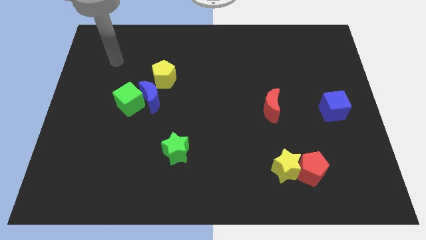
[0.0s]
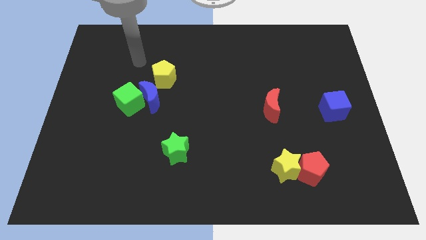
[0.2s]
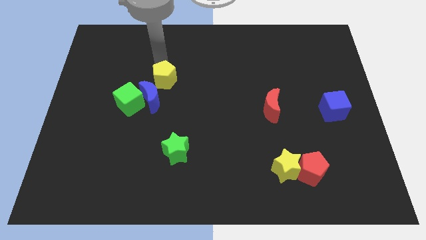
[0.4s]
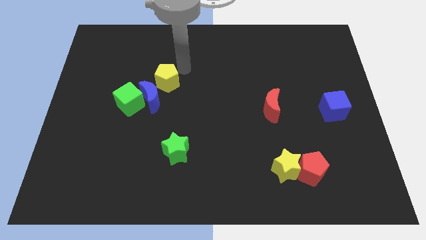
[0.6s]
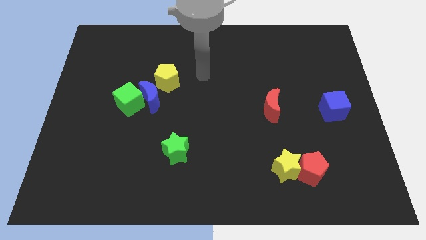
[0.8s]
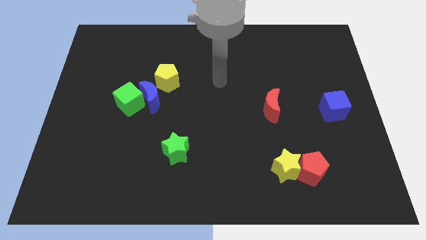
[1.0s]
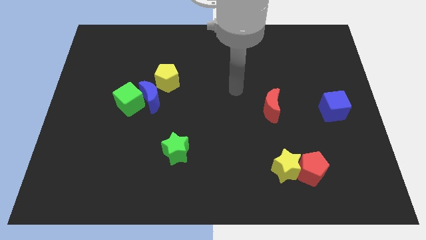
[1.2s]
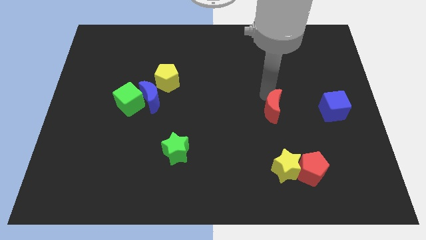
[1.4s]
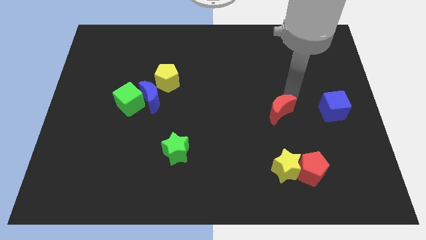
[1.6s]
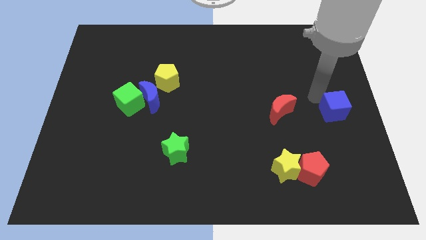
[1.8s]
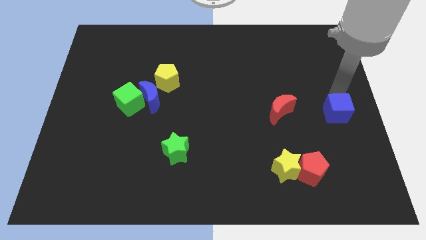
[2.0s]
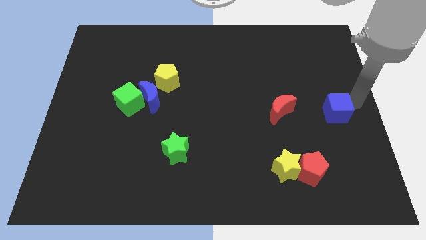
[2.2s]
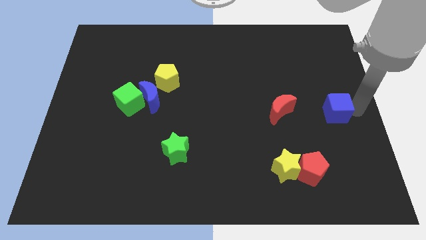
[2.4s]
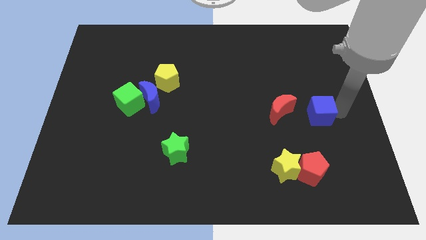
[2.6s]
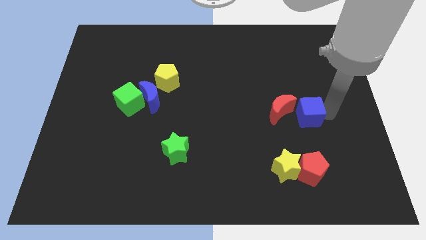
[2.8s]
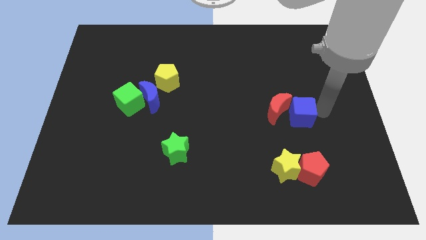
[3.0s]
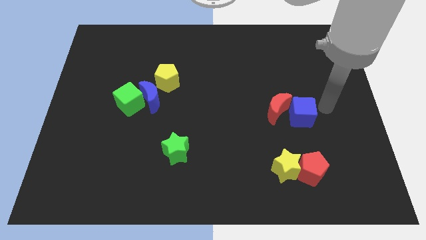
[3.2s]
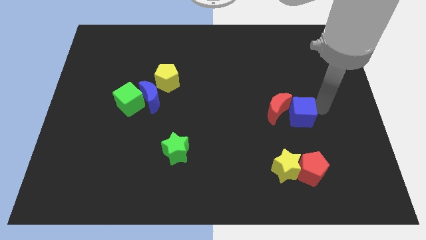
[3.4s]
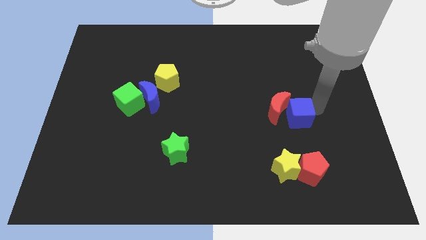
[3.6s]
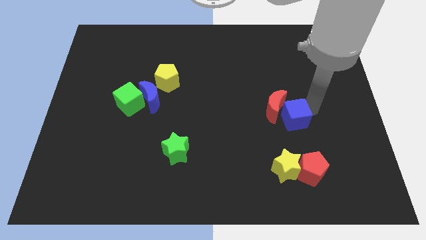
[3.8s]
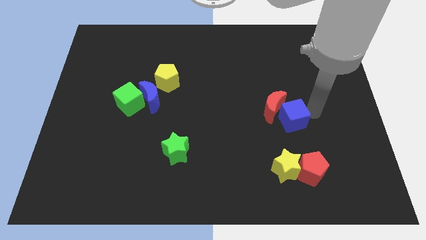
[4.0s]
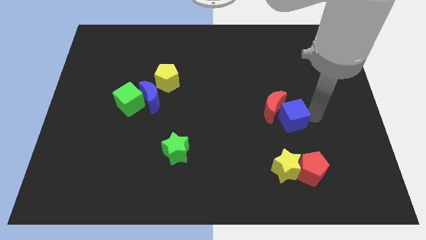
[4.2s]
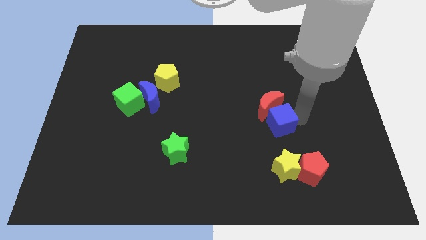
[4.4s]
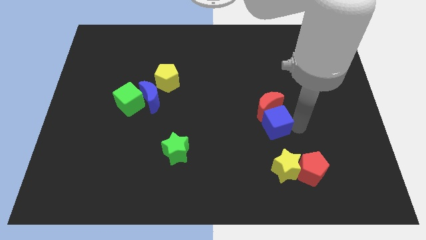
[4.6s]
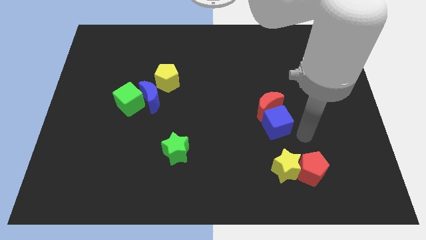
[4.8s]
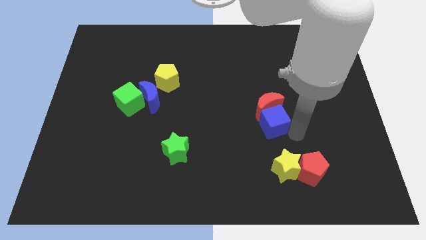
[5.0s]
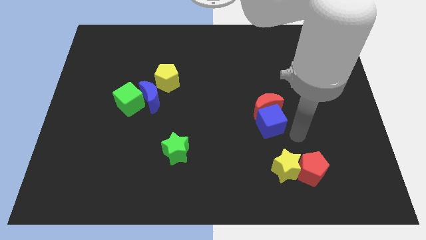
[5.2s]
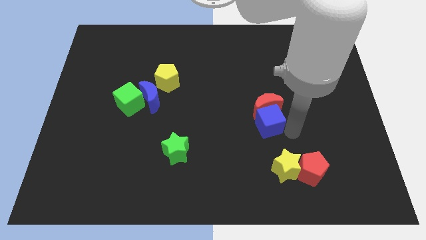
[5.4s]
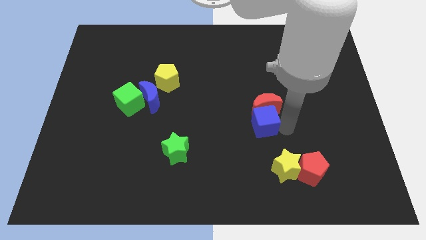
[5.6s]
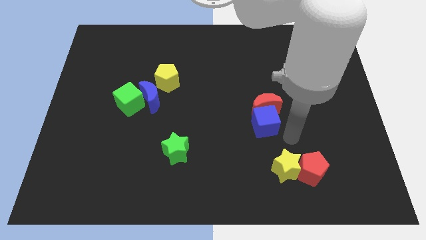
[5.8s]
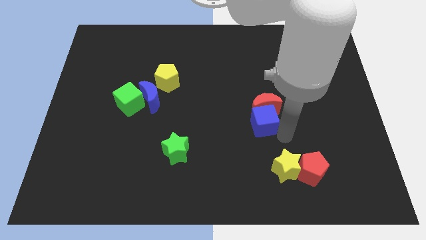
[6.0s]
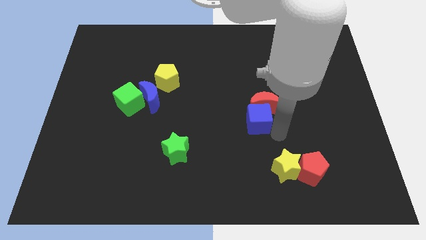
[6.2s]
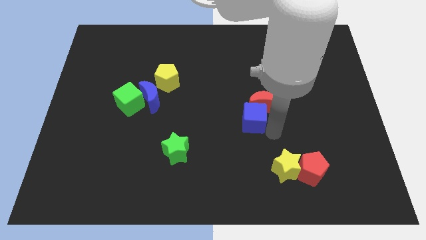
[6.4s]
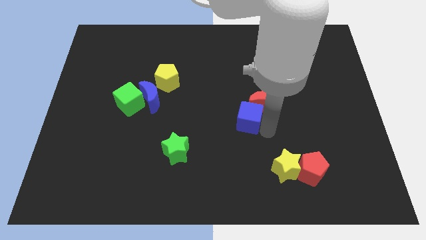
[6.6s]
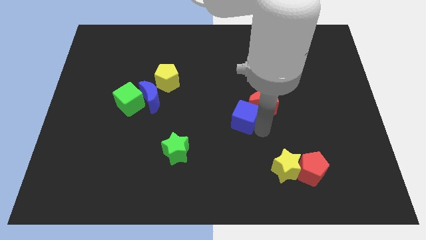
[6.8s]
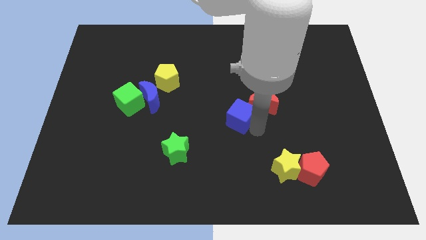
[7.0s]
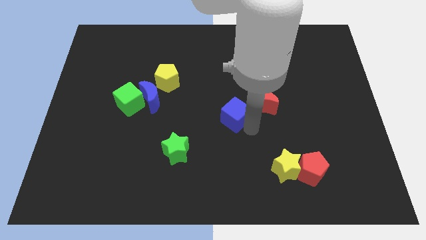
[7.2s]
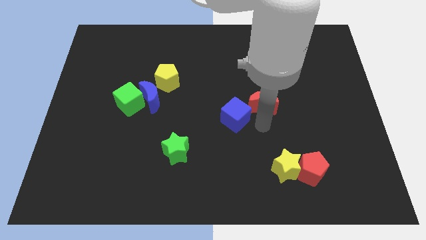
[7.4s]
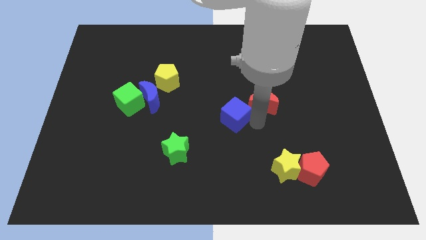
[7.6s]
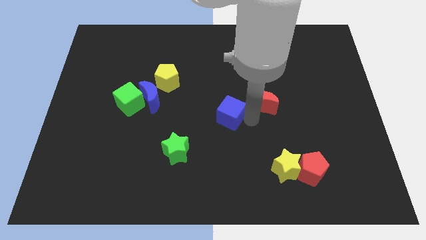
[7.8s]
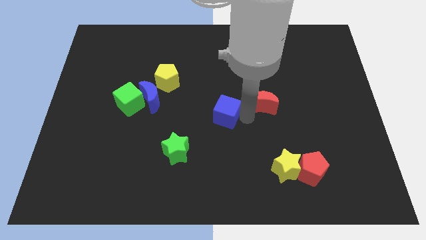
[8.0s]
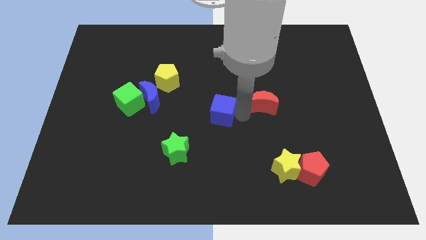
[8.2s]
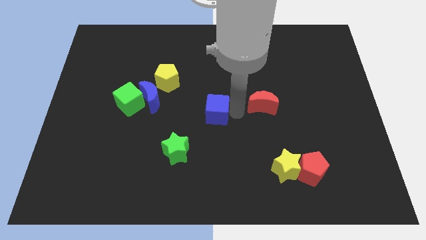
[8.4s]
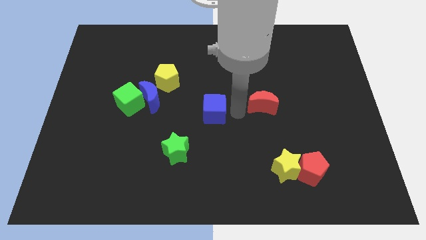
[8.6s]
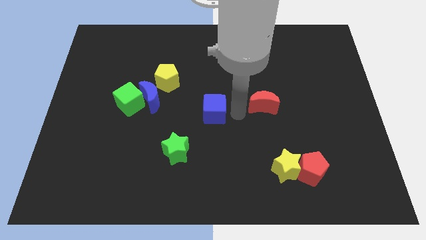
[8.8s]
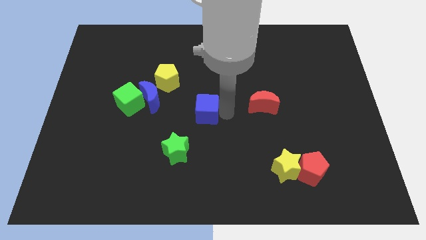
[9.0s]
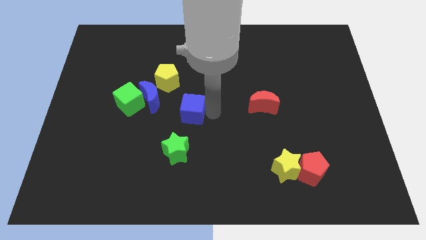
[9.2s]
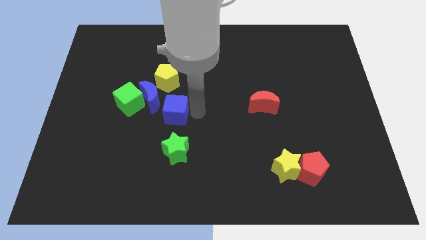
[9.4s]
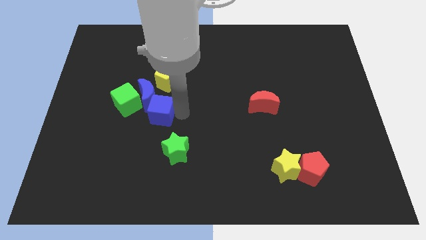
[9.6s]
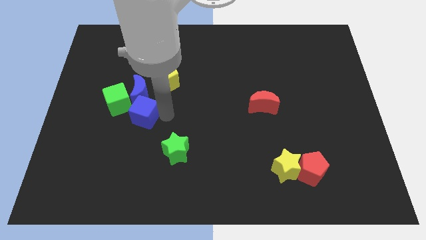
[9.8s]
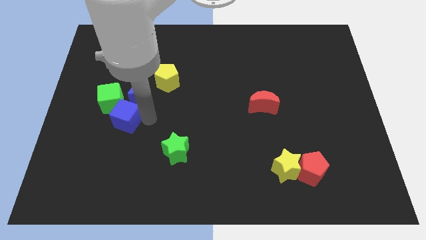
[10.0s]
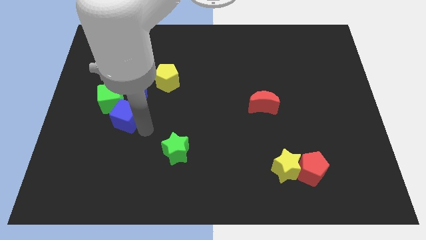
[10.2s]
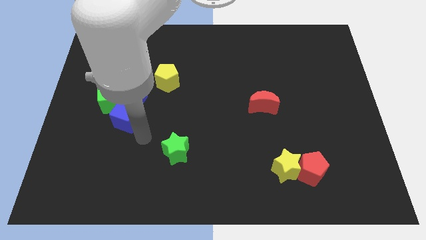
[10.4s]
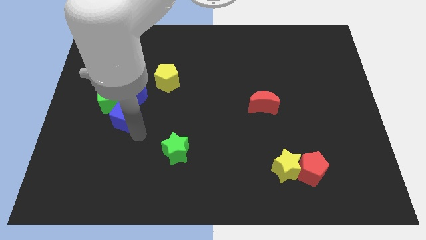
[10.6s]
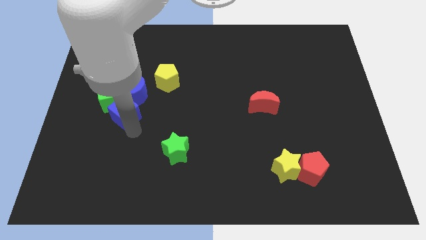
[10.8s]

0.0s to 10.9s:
slide the blue cube to the green cube

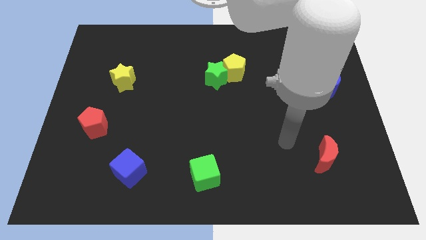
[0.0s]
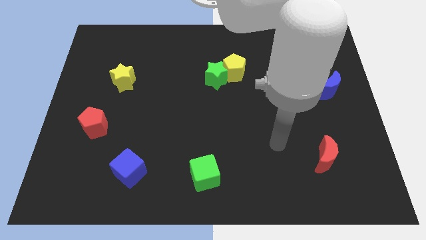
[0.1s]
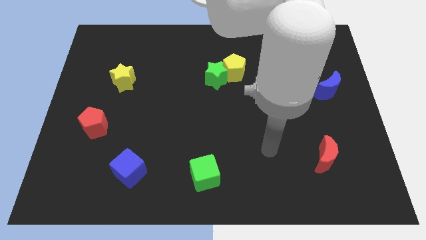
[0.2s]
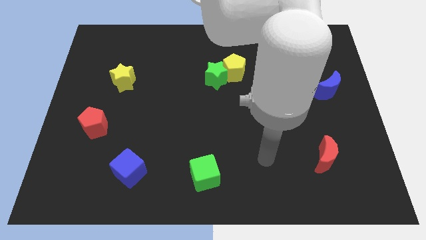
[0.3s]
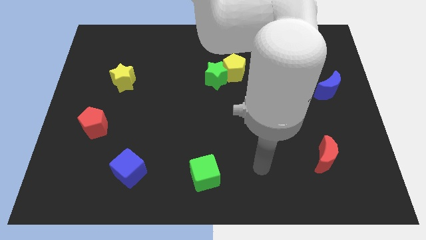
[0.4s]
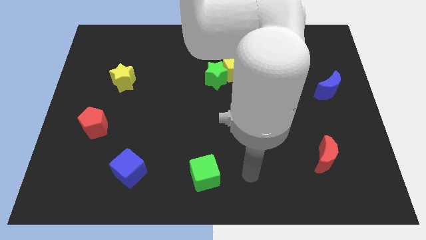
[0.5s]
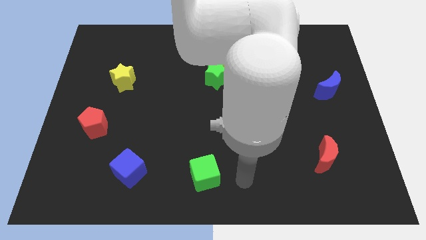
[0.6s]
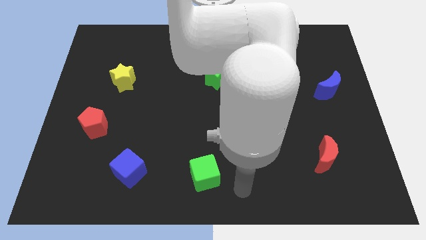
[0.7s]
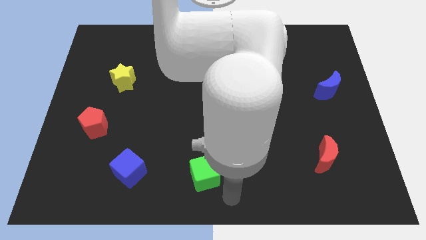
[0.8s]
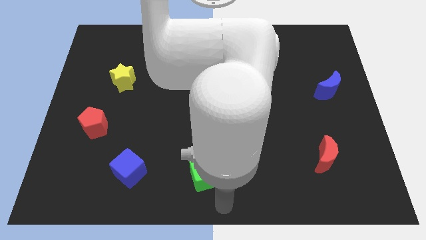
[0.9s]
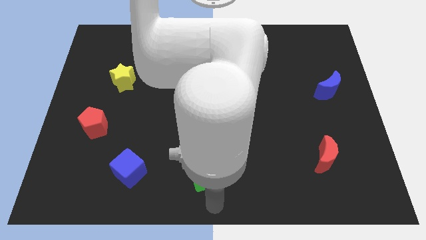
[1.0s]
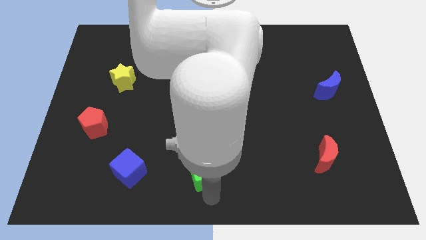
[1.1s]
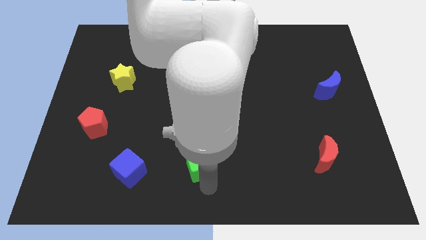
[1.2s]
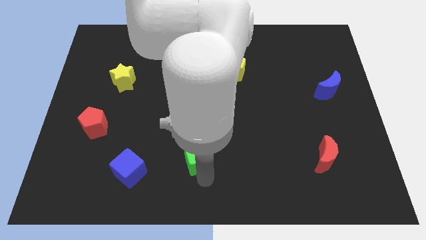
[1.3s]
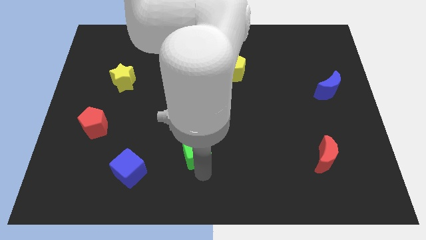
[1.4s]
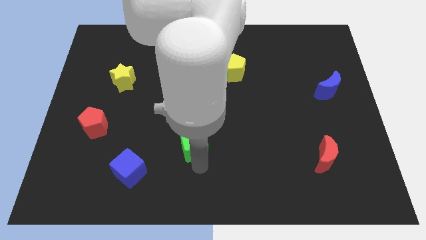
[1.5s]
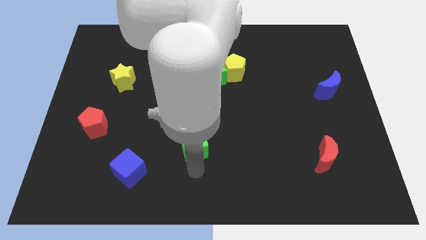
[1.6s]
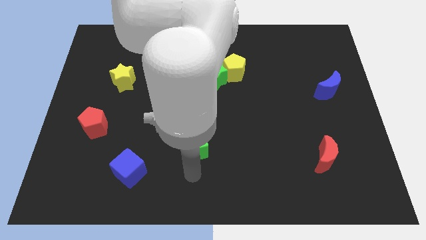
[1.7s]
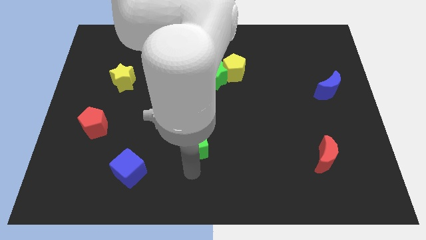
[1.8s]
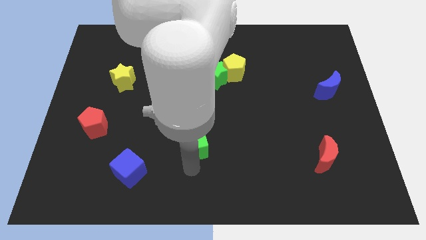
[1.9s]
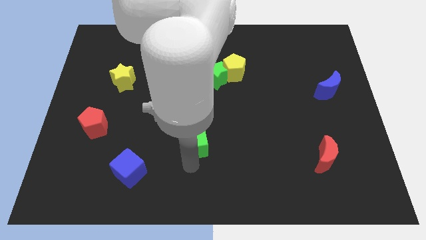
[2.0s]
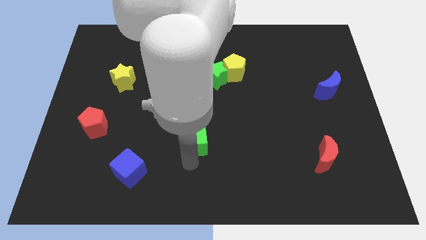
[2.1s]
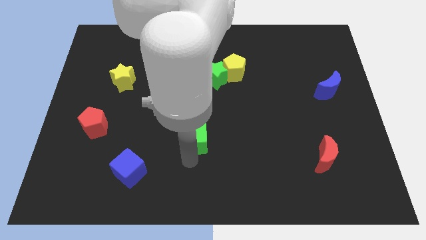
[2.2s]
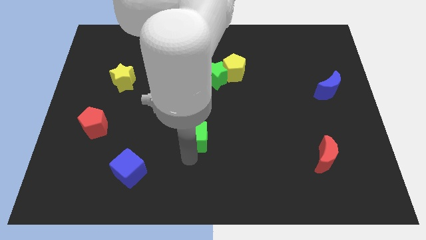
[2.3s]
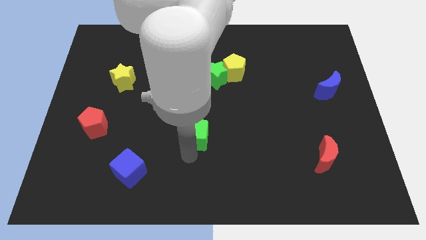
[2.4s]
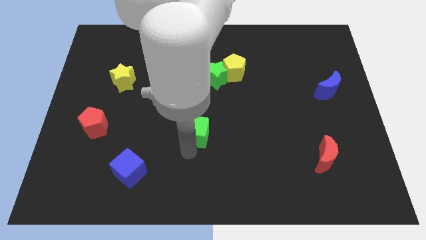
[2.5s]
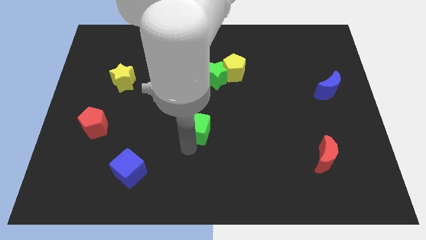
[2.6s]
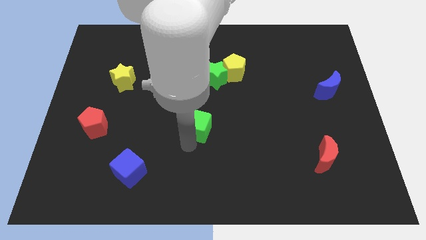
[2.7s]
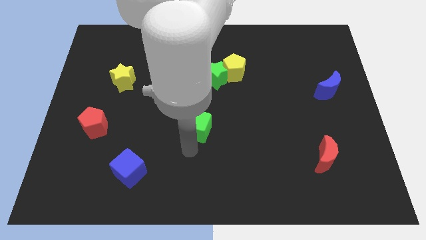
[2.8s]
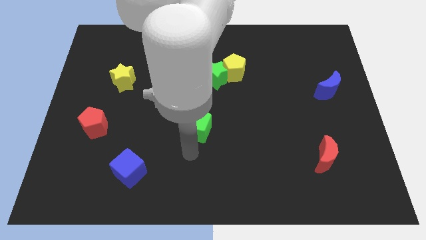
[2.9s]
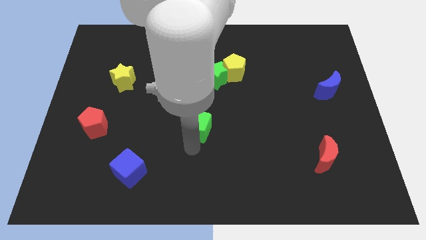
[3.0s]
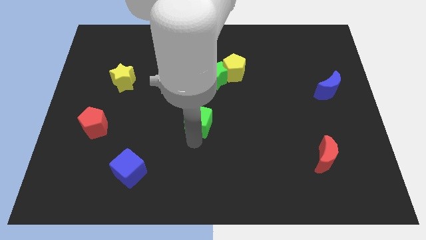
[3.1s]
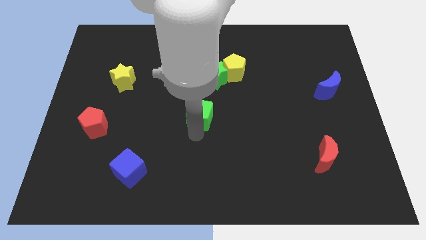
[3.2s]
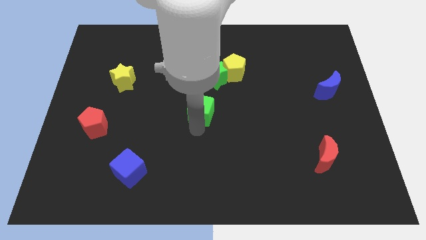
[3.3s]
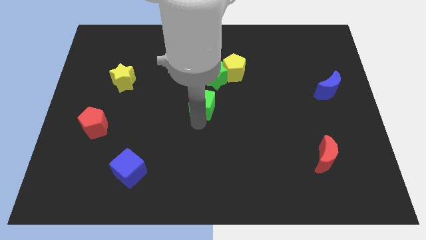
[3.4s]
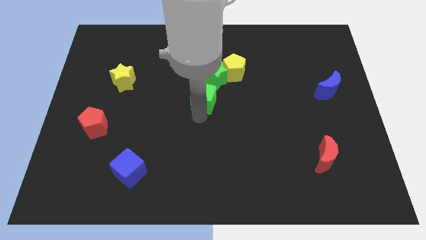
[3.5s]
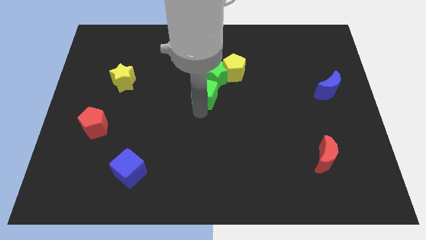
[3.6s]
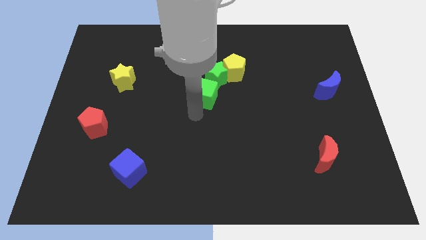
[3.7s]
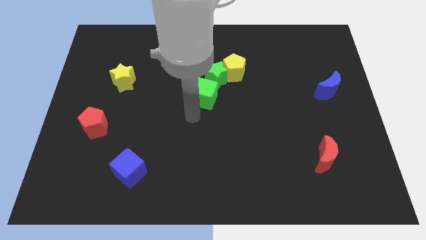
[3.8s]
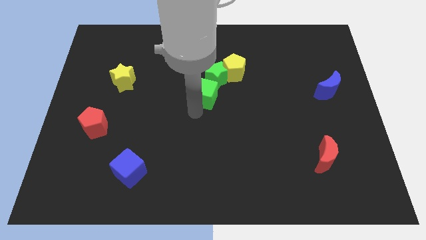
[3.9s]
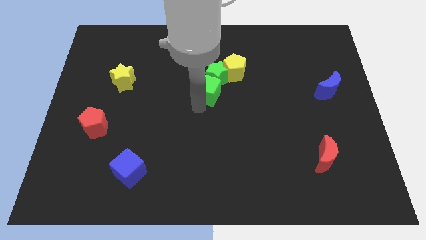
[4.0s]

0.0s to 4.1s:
push the green cube close to the green star
